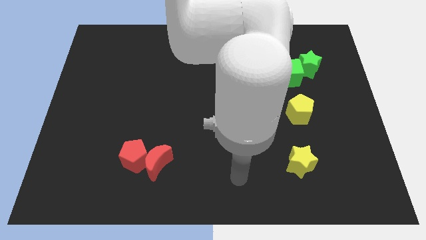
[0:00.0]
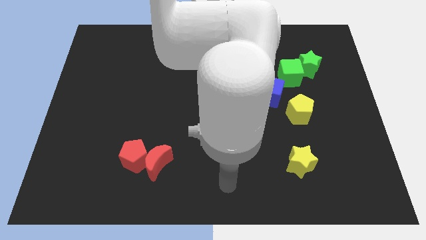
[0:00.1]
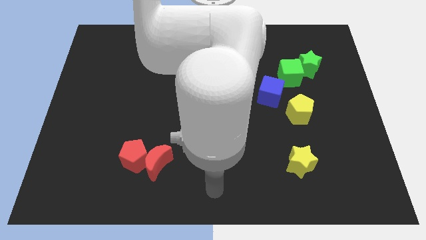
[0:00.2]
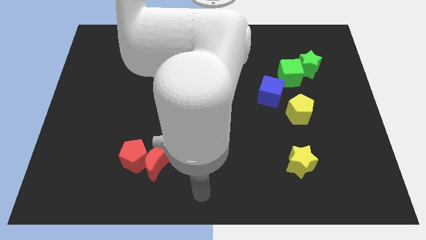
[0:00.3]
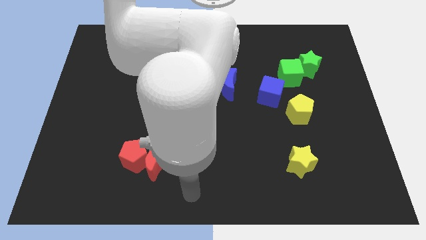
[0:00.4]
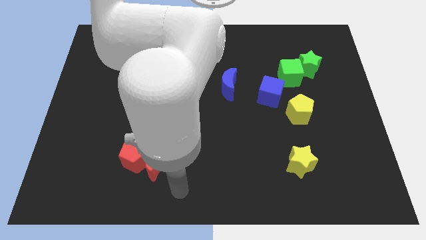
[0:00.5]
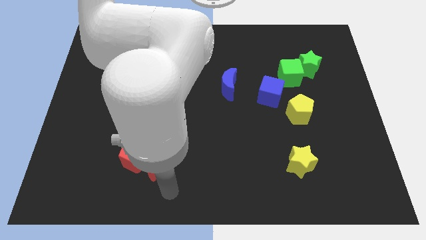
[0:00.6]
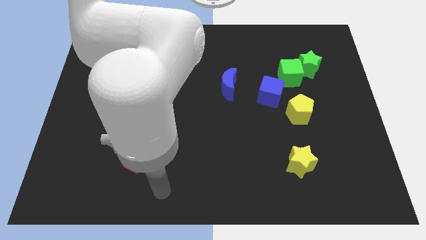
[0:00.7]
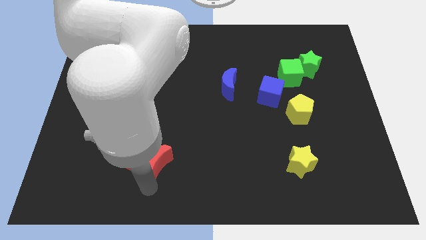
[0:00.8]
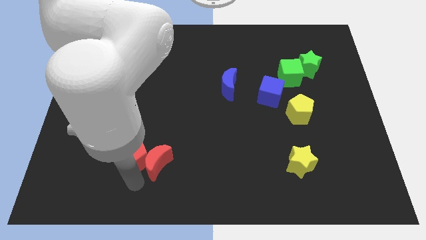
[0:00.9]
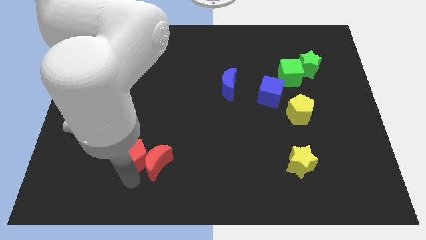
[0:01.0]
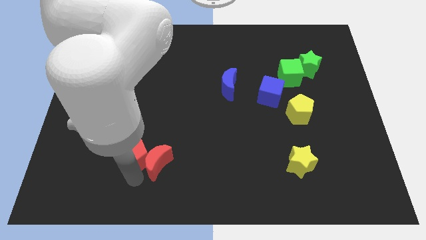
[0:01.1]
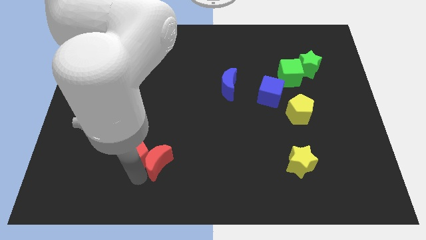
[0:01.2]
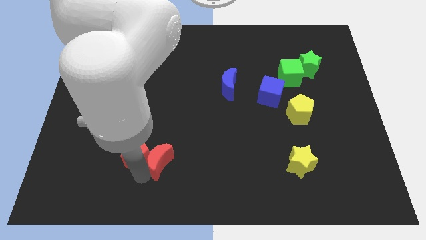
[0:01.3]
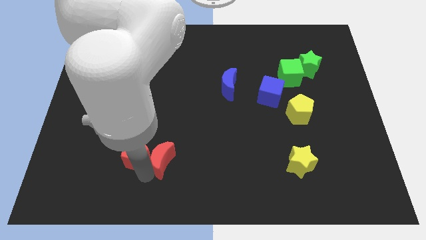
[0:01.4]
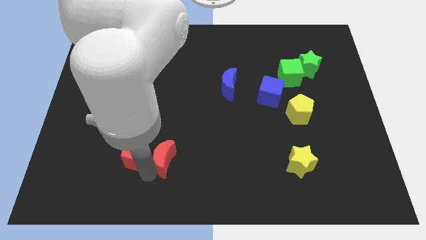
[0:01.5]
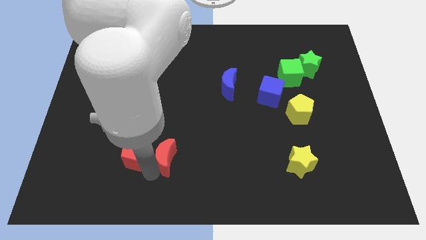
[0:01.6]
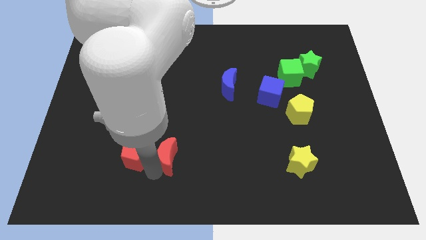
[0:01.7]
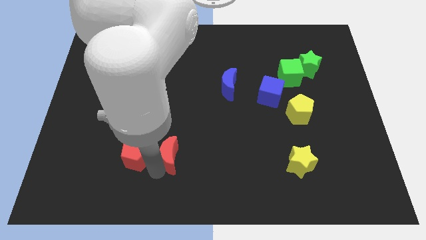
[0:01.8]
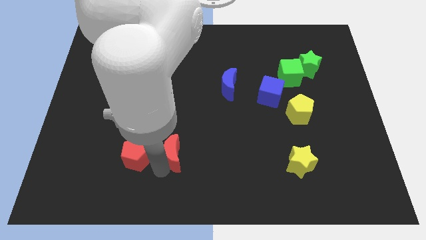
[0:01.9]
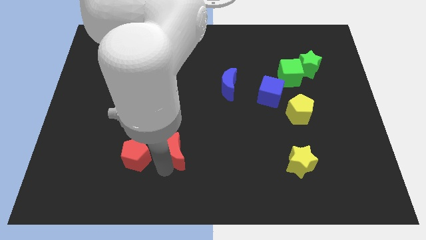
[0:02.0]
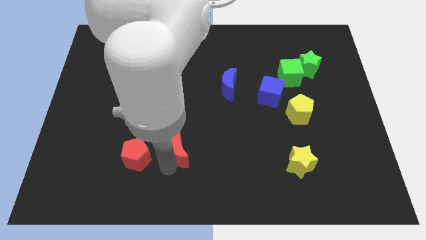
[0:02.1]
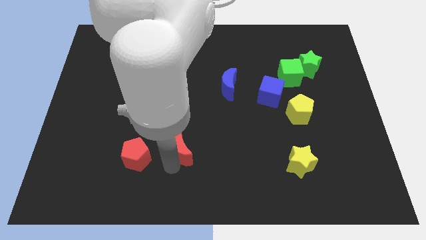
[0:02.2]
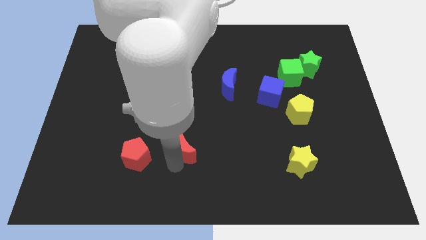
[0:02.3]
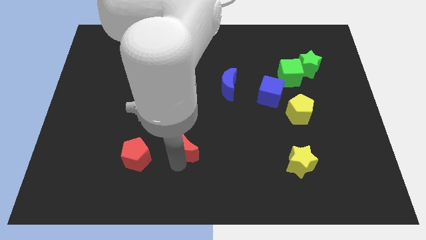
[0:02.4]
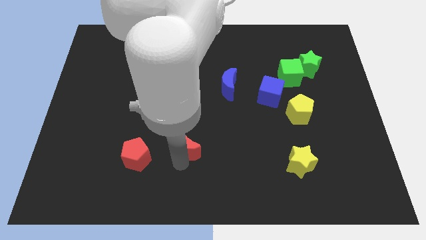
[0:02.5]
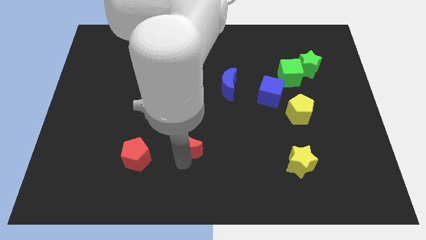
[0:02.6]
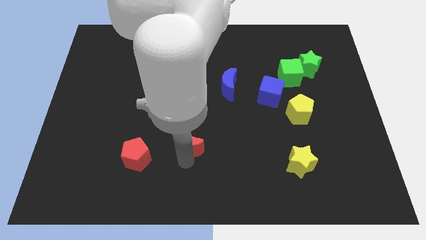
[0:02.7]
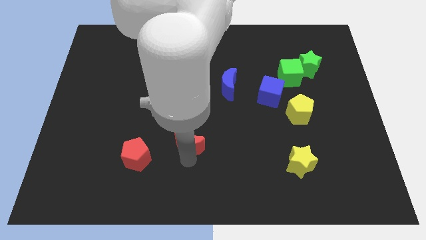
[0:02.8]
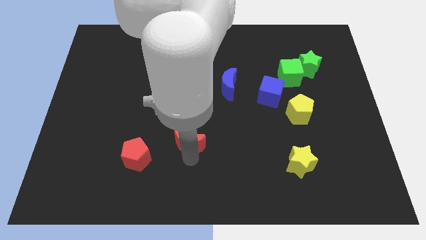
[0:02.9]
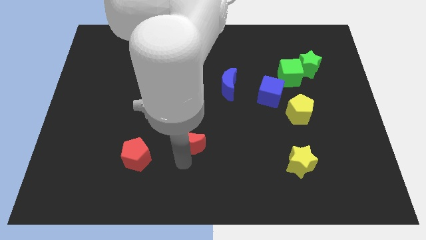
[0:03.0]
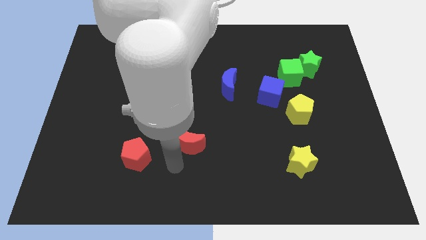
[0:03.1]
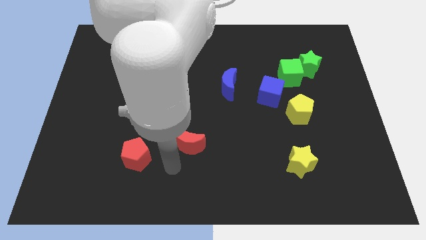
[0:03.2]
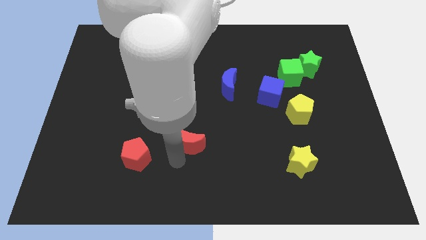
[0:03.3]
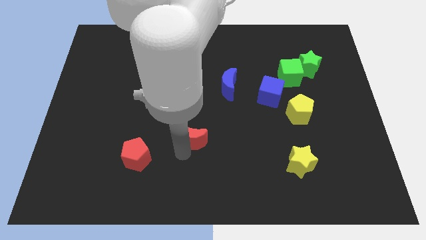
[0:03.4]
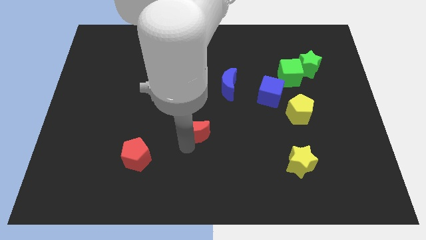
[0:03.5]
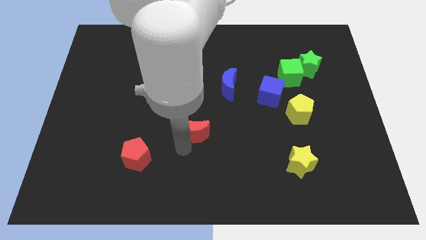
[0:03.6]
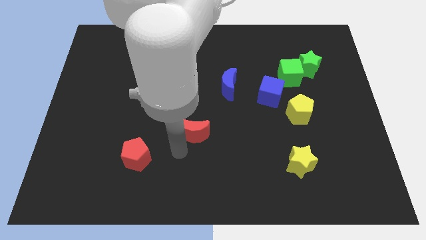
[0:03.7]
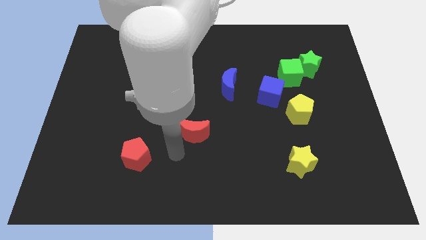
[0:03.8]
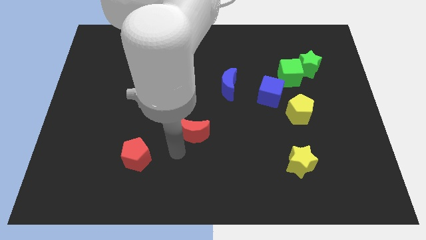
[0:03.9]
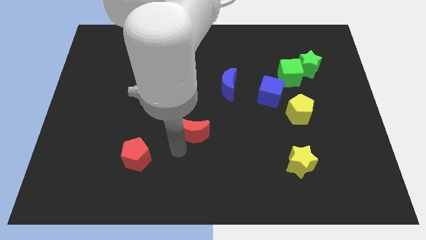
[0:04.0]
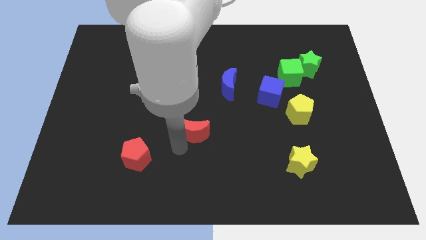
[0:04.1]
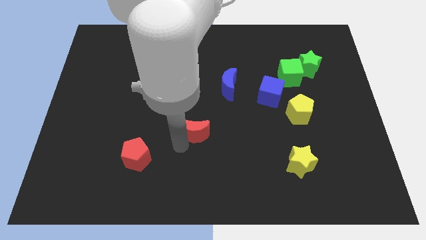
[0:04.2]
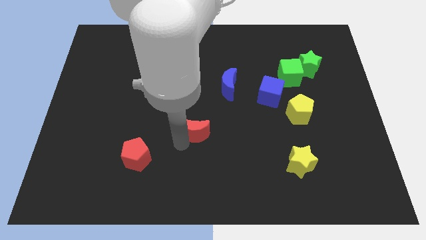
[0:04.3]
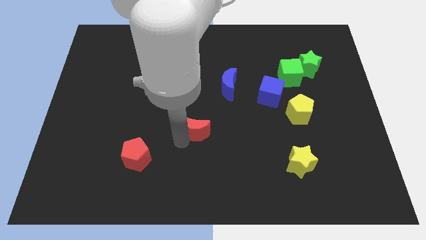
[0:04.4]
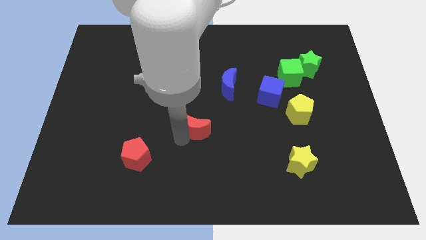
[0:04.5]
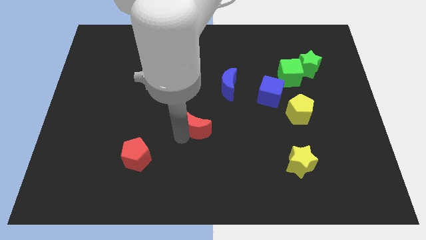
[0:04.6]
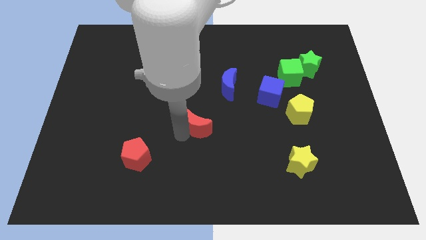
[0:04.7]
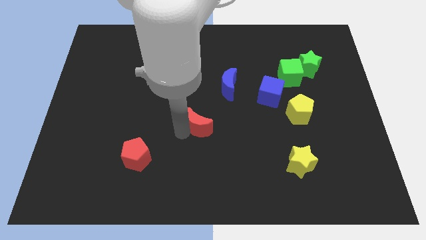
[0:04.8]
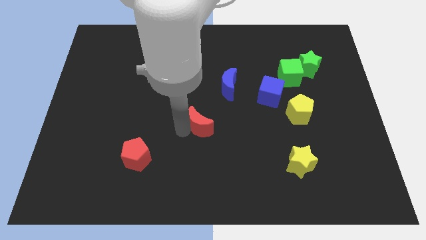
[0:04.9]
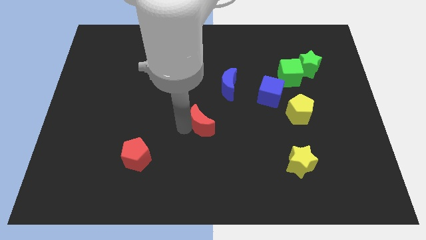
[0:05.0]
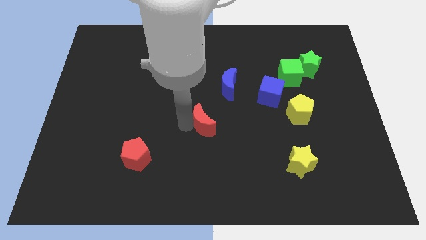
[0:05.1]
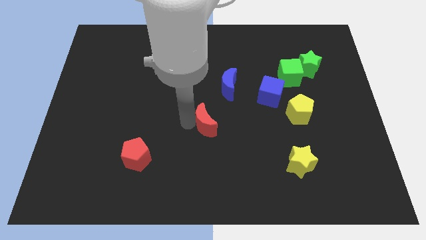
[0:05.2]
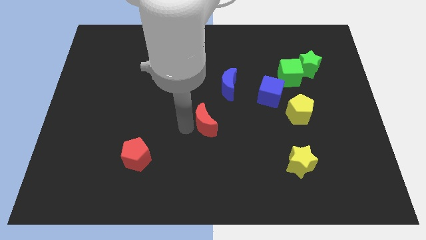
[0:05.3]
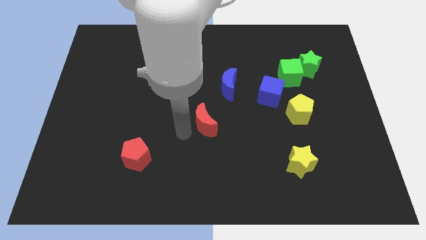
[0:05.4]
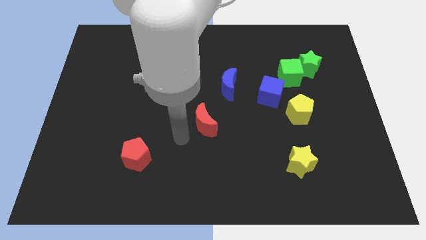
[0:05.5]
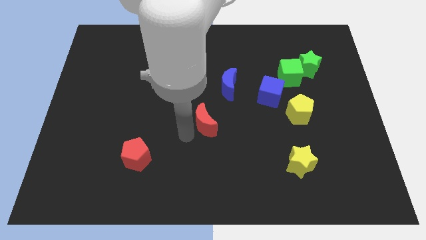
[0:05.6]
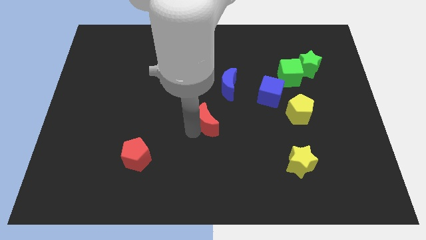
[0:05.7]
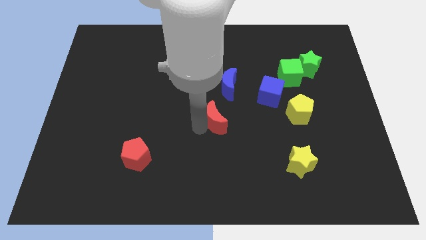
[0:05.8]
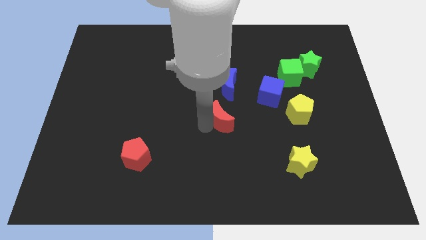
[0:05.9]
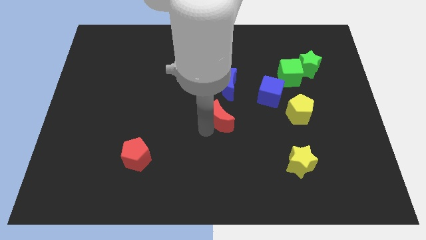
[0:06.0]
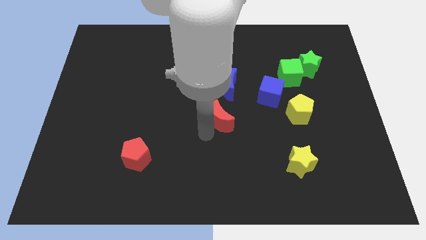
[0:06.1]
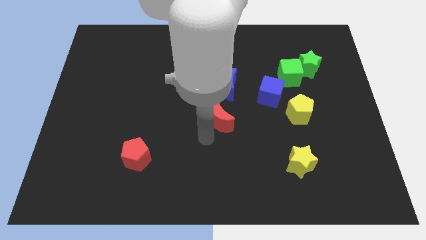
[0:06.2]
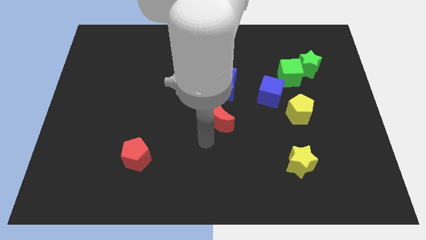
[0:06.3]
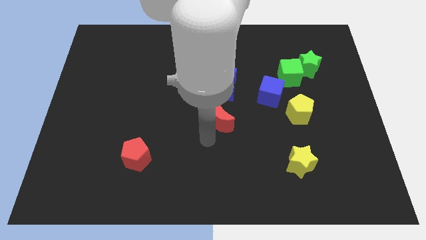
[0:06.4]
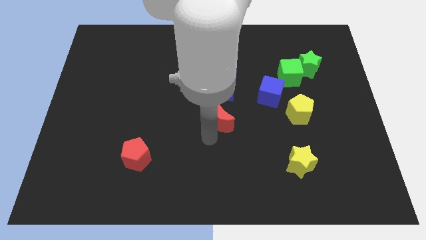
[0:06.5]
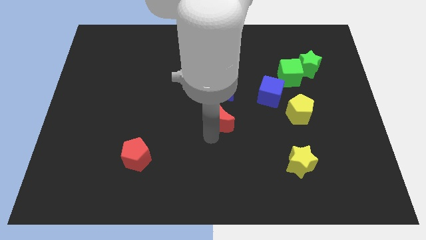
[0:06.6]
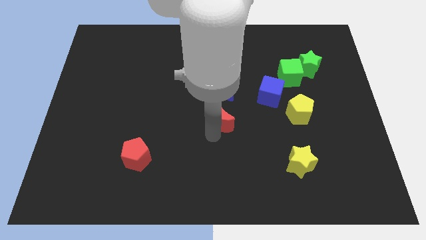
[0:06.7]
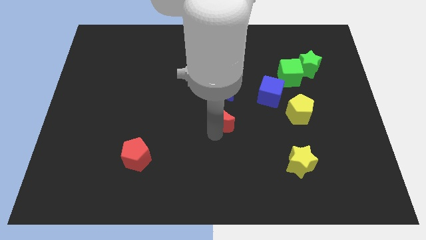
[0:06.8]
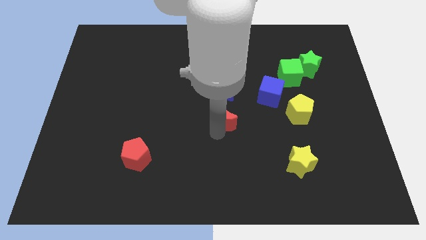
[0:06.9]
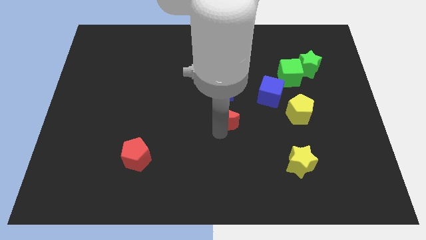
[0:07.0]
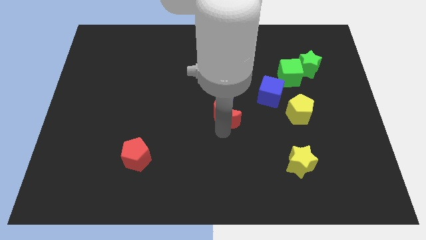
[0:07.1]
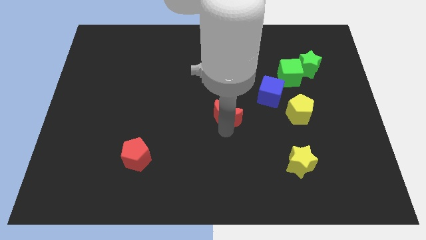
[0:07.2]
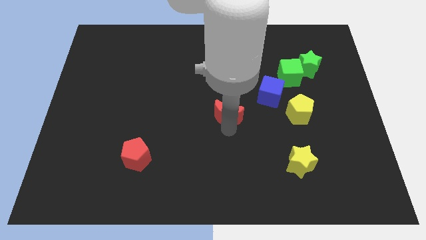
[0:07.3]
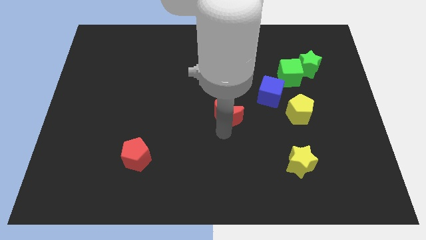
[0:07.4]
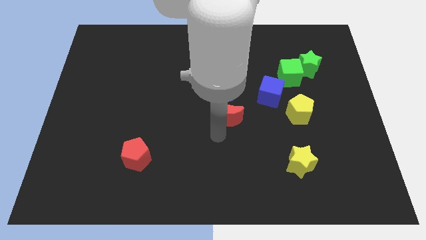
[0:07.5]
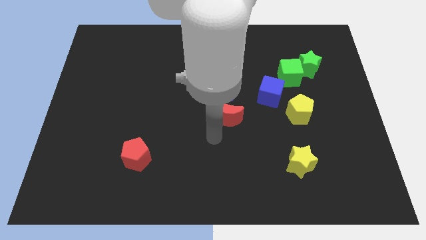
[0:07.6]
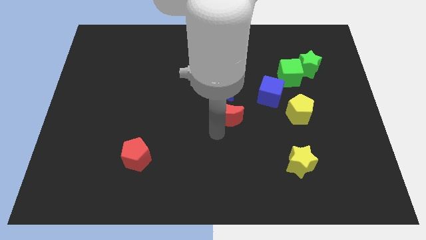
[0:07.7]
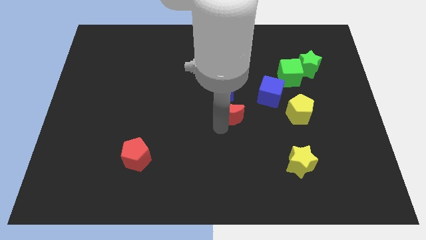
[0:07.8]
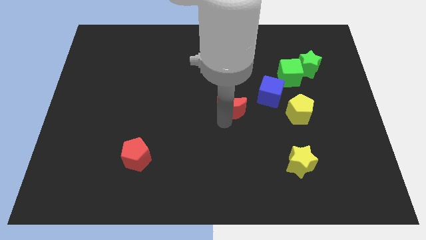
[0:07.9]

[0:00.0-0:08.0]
push the red moon up and right diagonally

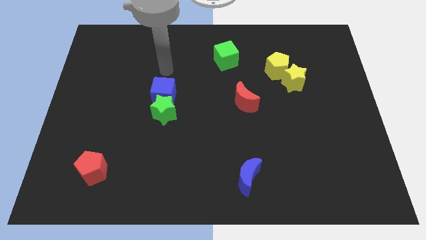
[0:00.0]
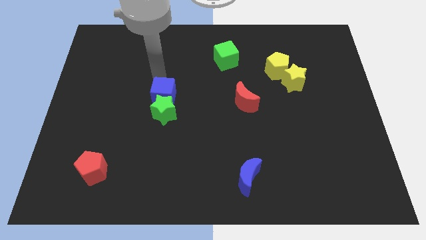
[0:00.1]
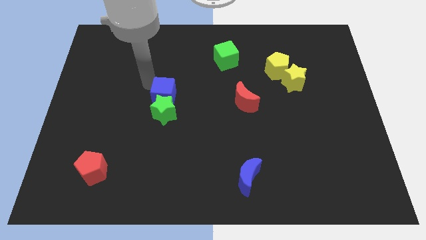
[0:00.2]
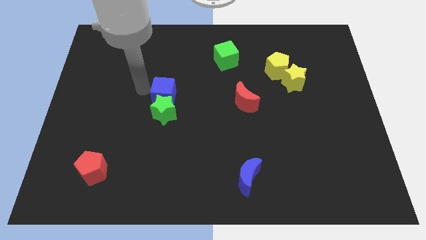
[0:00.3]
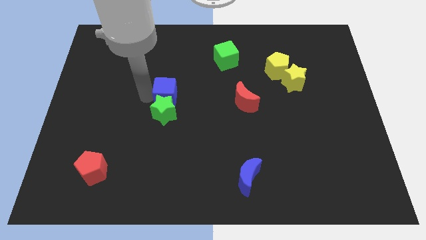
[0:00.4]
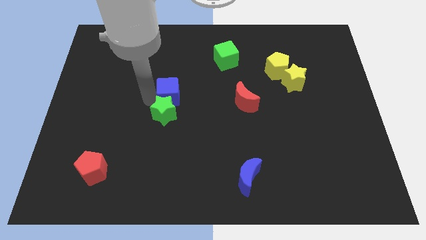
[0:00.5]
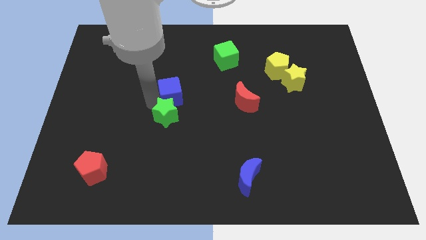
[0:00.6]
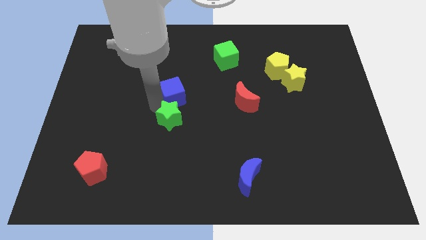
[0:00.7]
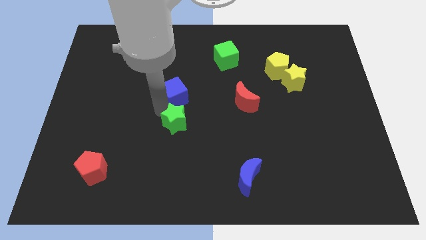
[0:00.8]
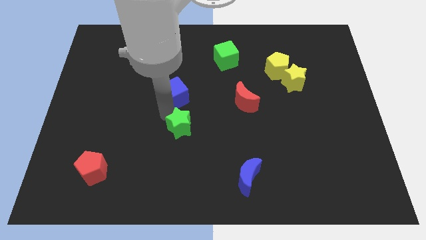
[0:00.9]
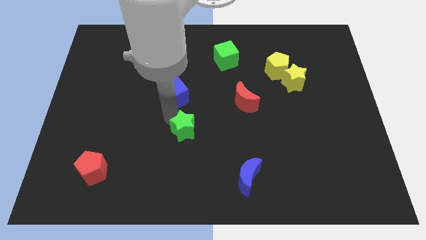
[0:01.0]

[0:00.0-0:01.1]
move the green star a bit downwards and then right
